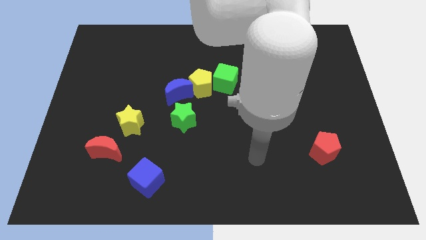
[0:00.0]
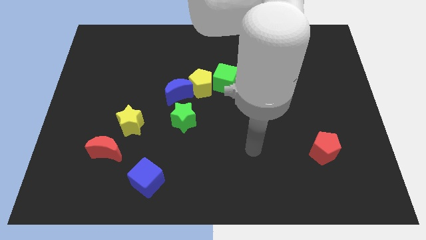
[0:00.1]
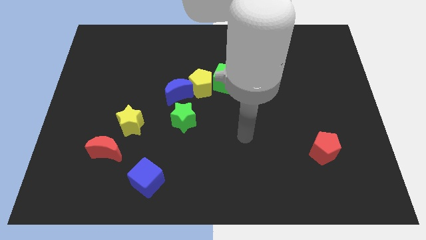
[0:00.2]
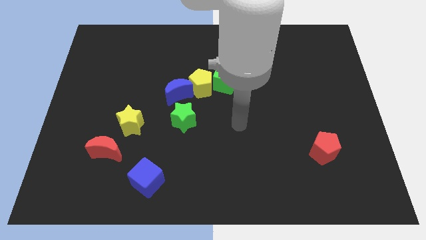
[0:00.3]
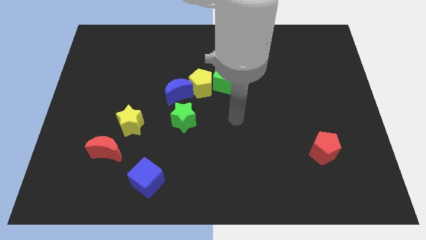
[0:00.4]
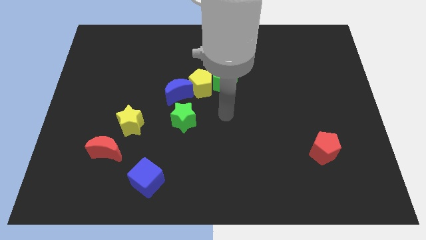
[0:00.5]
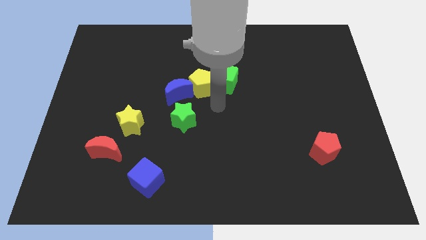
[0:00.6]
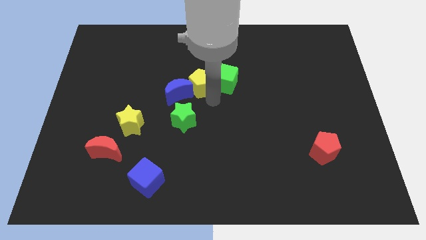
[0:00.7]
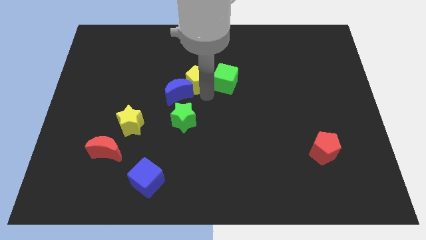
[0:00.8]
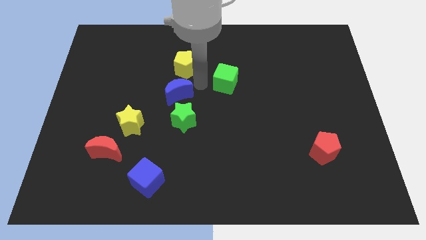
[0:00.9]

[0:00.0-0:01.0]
move the green cube away from the yellow pentagon

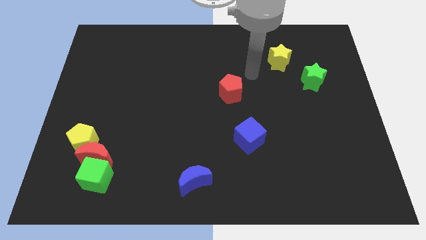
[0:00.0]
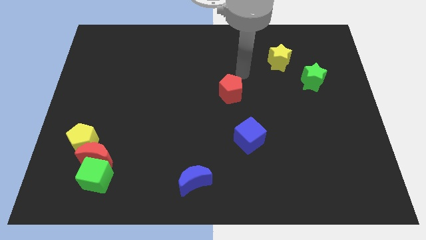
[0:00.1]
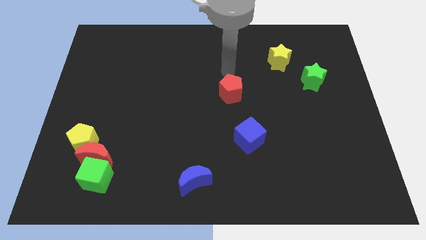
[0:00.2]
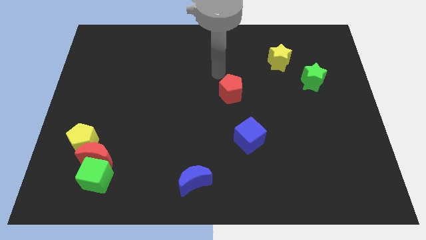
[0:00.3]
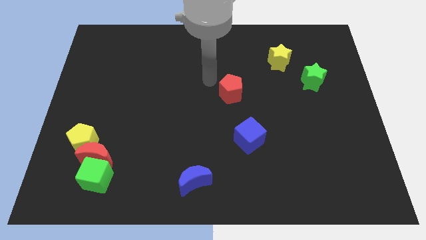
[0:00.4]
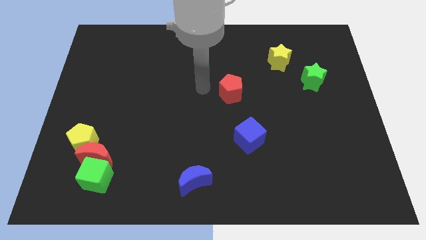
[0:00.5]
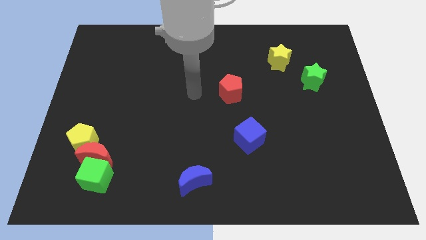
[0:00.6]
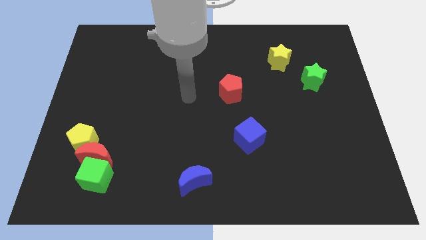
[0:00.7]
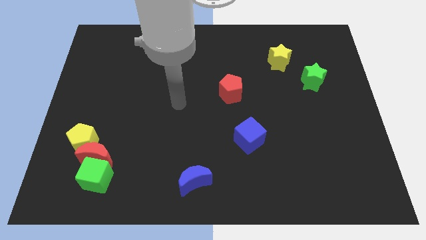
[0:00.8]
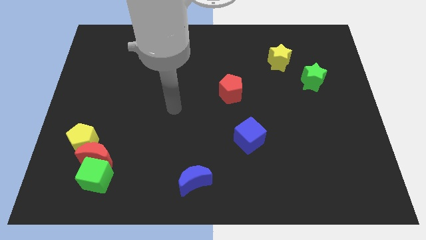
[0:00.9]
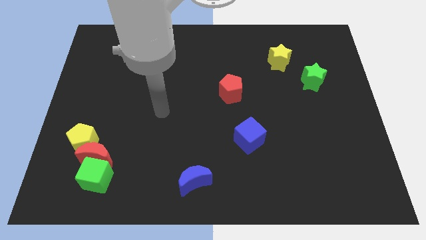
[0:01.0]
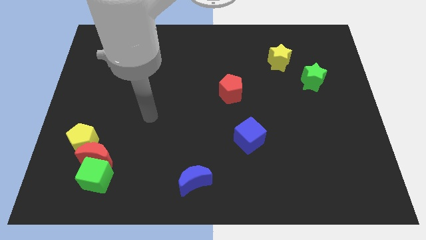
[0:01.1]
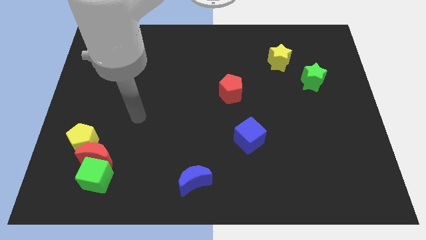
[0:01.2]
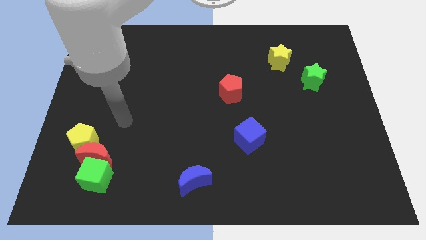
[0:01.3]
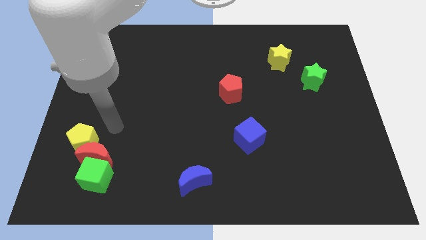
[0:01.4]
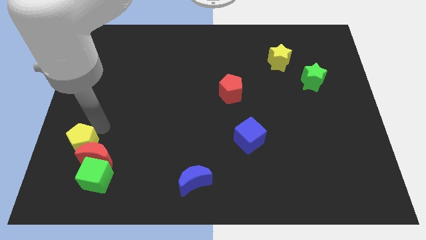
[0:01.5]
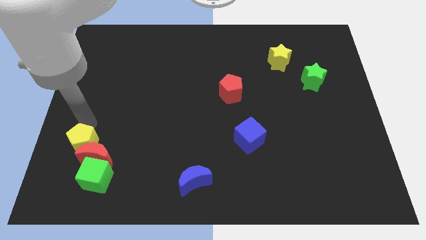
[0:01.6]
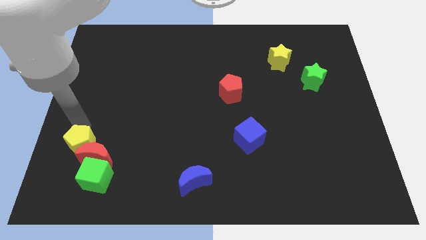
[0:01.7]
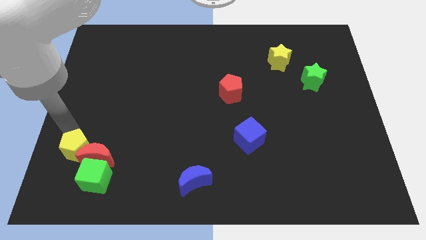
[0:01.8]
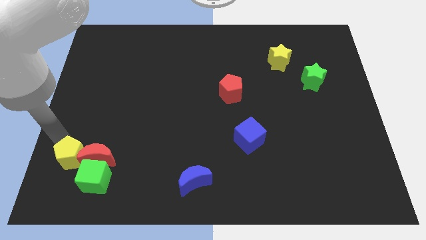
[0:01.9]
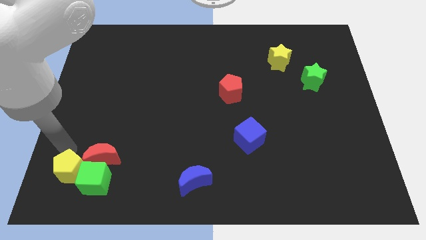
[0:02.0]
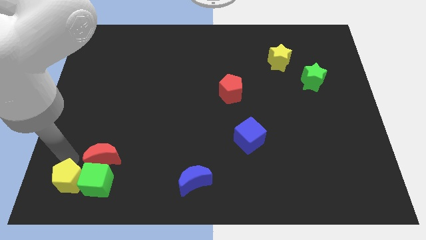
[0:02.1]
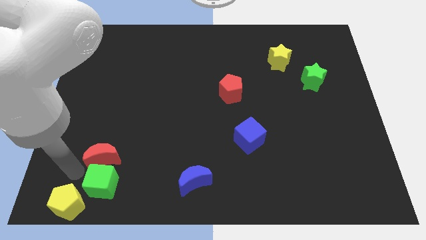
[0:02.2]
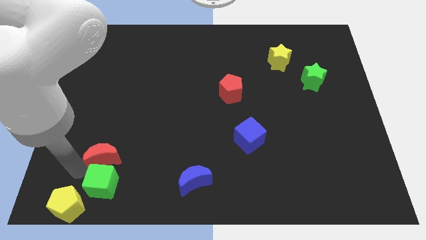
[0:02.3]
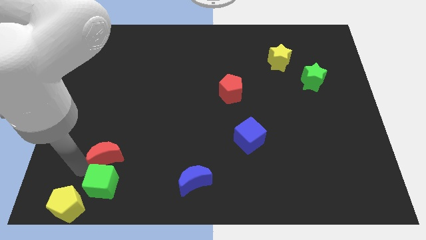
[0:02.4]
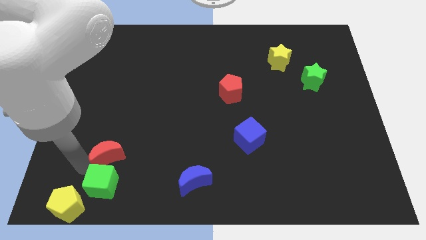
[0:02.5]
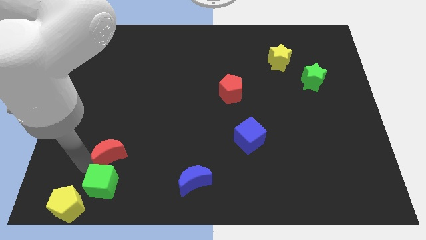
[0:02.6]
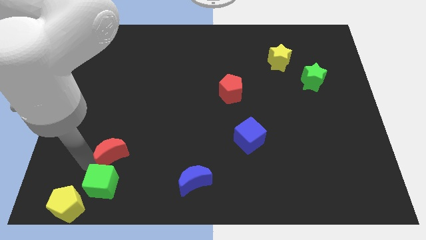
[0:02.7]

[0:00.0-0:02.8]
separate the red moon from the green cube and yellow pentagon

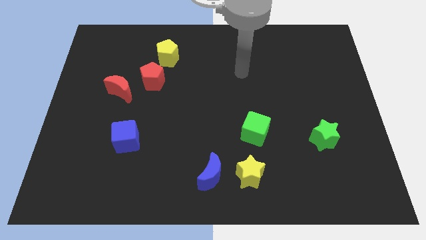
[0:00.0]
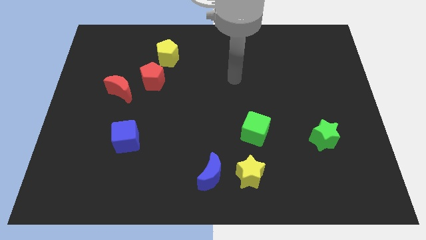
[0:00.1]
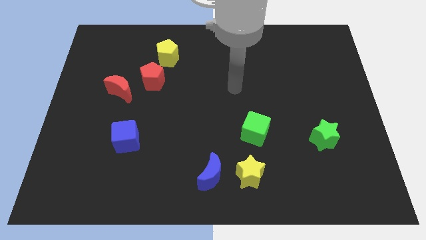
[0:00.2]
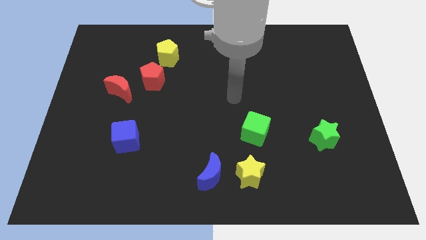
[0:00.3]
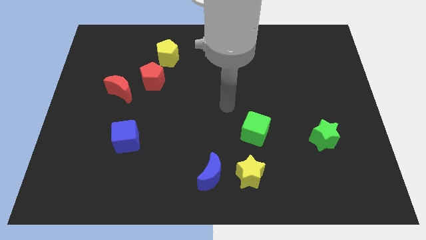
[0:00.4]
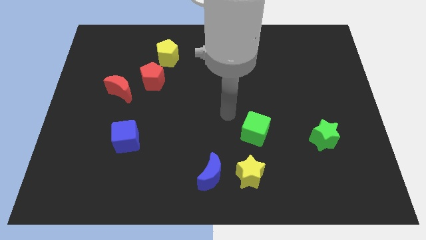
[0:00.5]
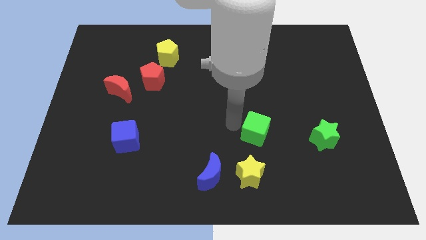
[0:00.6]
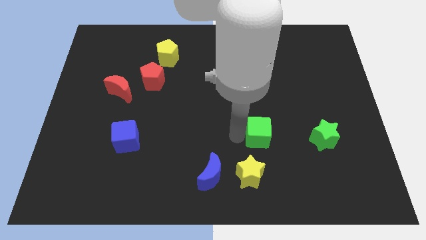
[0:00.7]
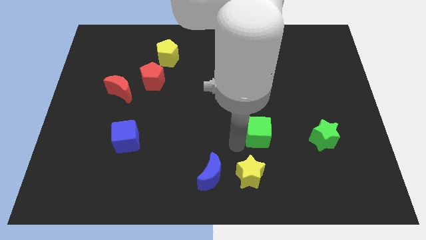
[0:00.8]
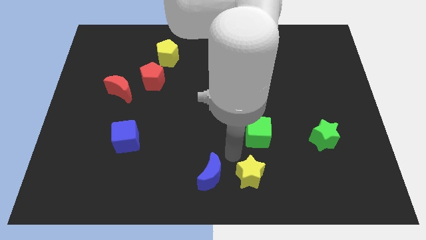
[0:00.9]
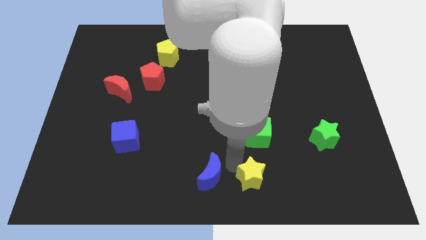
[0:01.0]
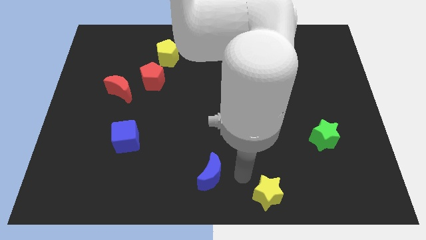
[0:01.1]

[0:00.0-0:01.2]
separate the blue moon from the yellow star

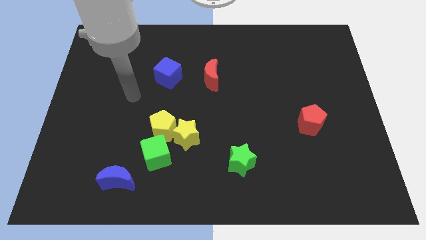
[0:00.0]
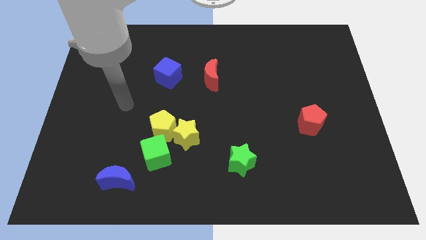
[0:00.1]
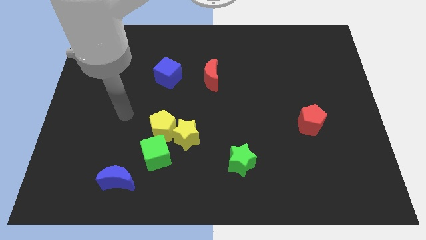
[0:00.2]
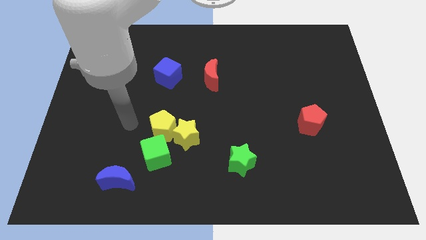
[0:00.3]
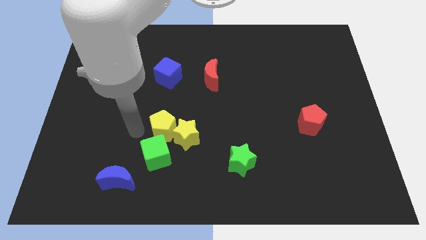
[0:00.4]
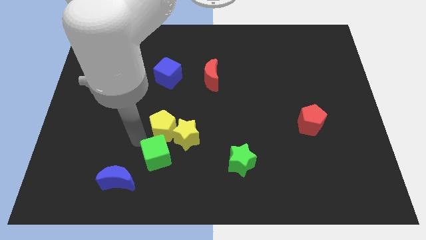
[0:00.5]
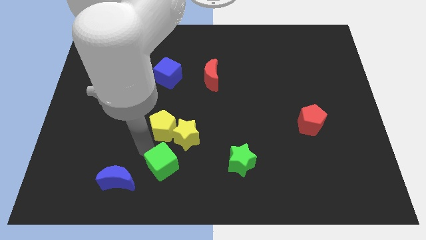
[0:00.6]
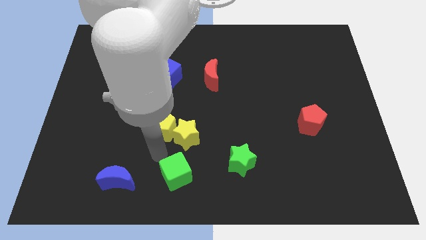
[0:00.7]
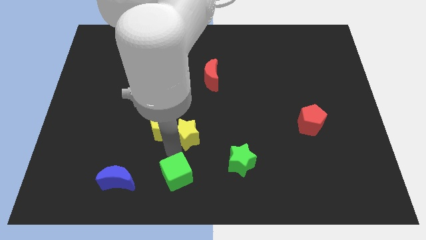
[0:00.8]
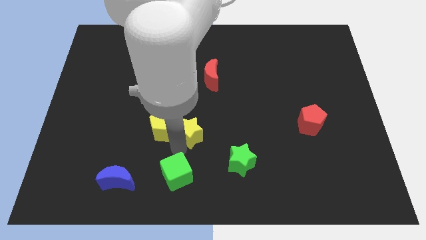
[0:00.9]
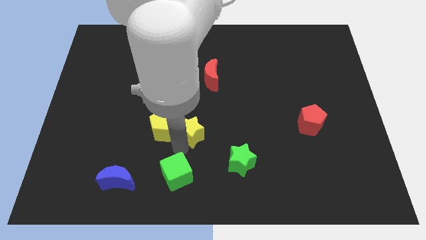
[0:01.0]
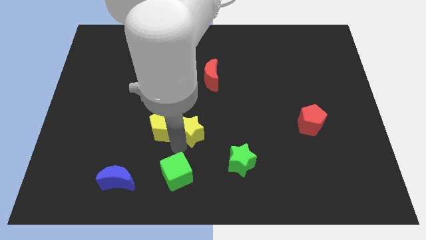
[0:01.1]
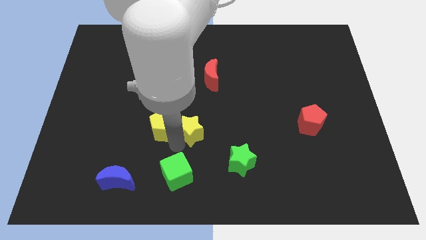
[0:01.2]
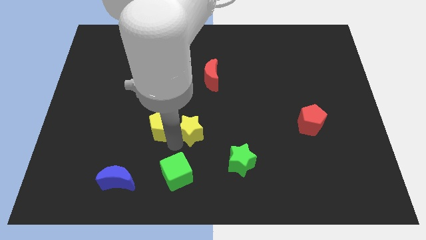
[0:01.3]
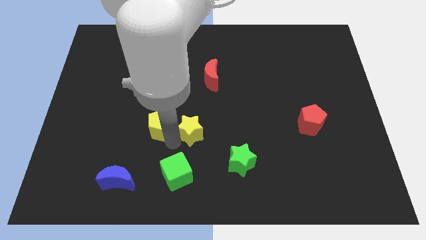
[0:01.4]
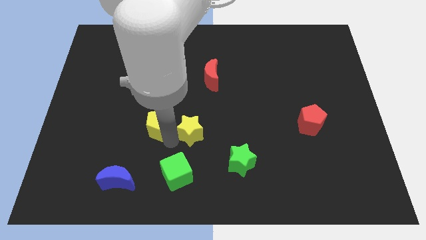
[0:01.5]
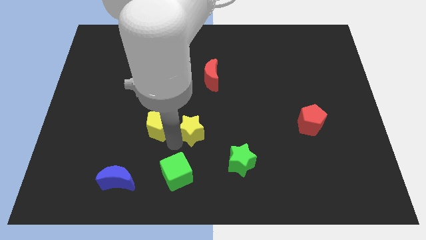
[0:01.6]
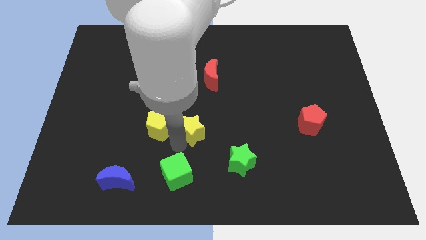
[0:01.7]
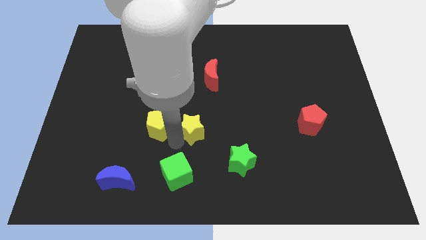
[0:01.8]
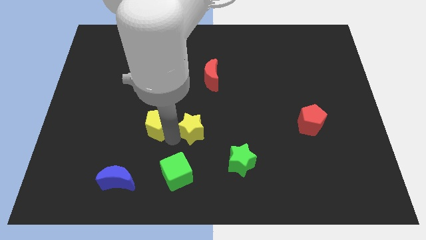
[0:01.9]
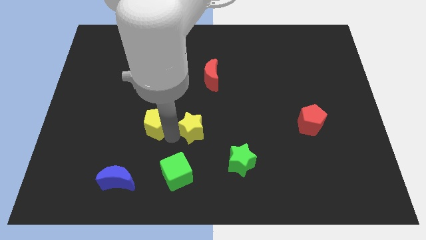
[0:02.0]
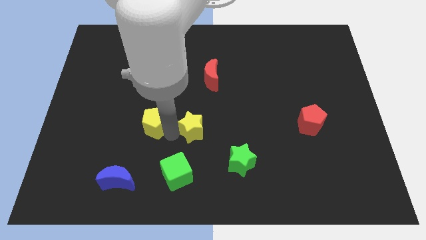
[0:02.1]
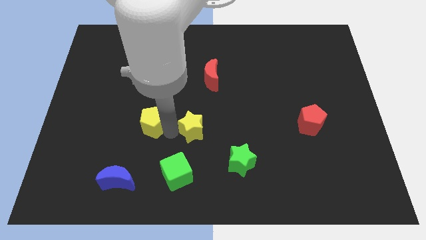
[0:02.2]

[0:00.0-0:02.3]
move the yellow pentagon away from the yellow star and green cube

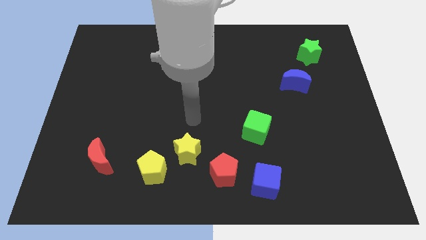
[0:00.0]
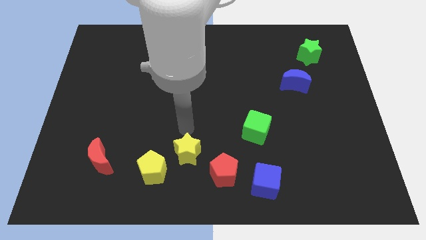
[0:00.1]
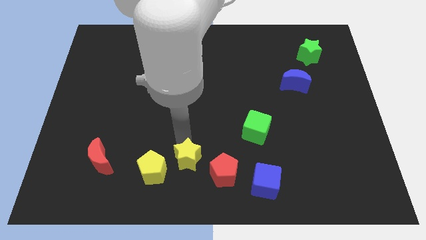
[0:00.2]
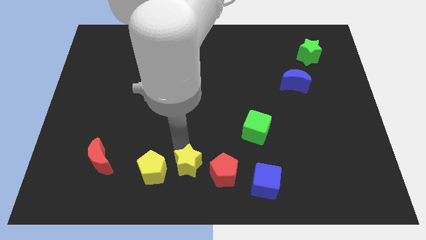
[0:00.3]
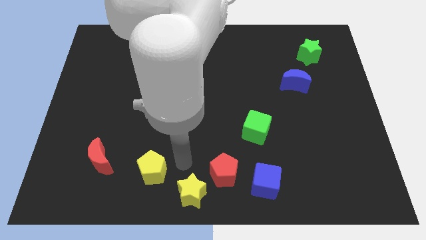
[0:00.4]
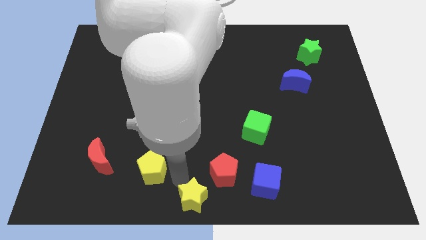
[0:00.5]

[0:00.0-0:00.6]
move the yellow pentagon away from the yellow star

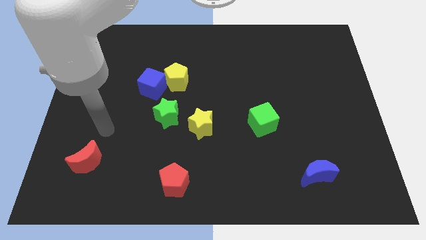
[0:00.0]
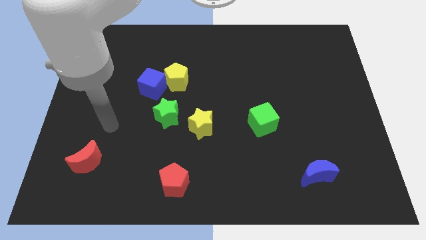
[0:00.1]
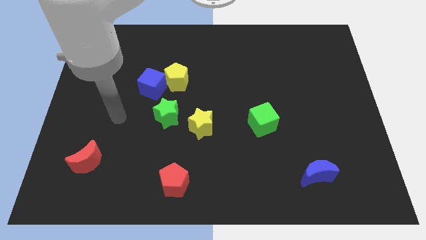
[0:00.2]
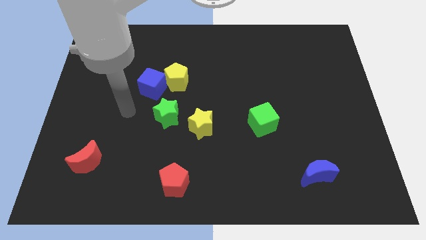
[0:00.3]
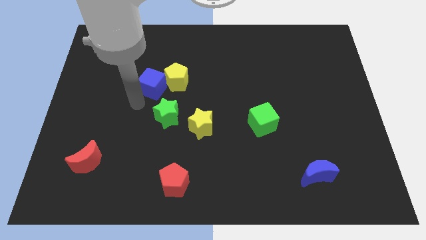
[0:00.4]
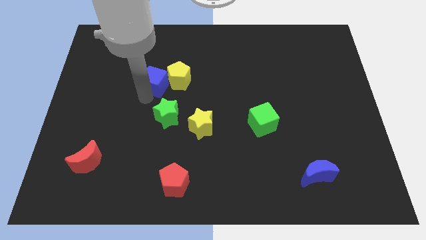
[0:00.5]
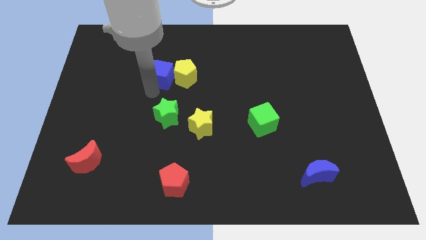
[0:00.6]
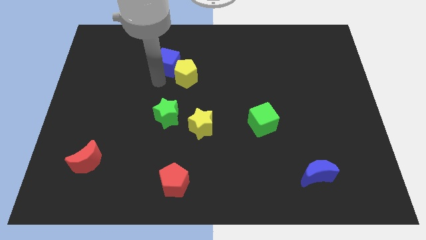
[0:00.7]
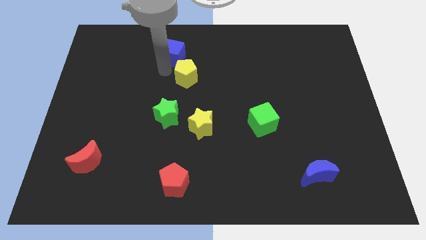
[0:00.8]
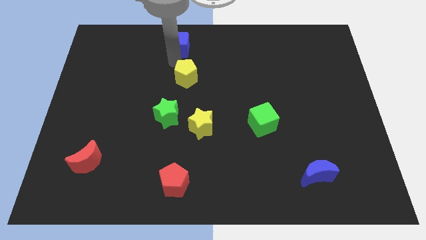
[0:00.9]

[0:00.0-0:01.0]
move the yellow pentagon away from the blue cube

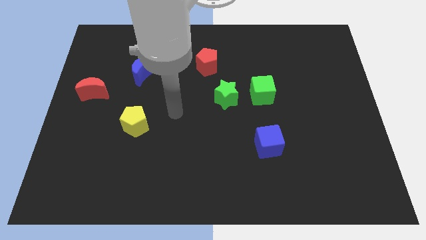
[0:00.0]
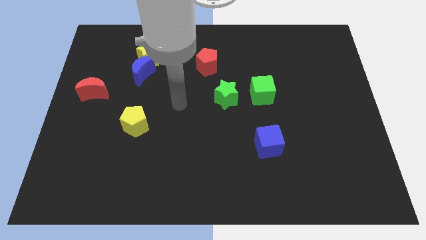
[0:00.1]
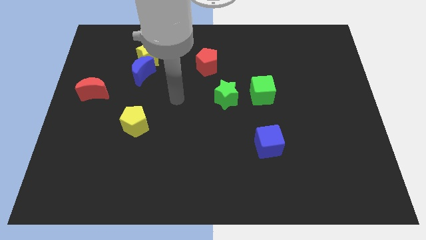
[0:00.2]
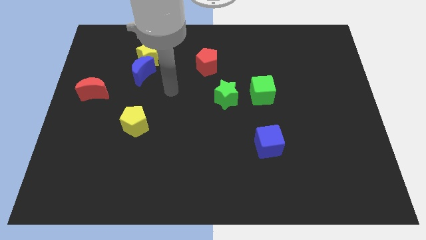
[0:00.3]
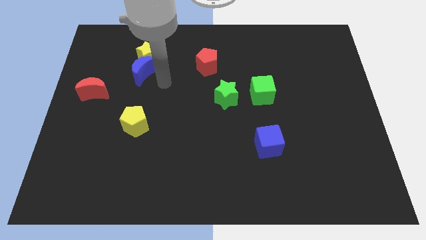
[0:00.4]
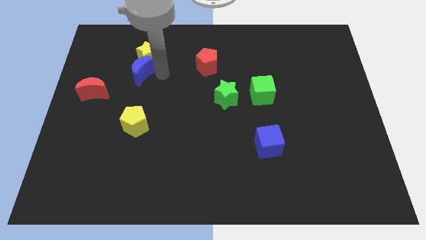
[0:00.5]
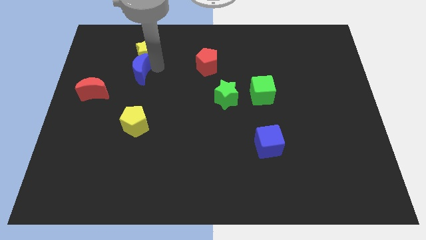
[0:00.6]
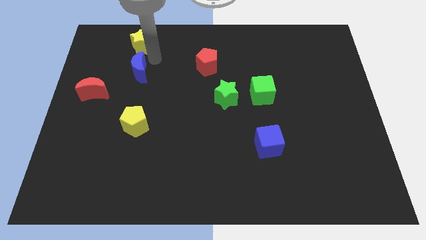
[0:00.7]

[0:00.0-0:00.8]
move the blue moon away from the yellow star
